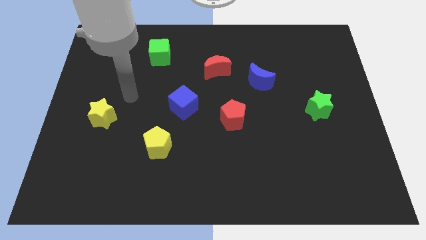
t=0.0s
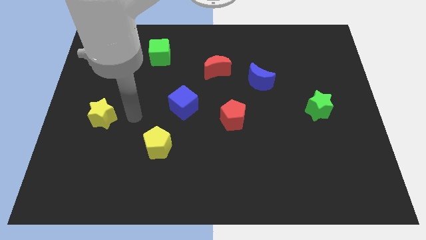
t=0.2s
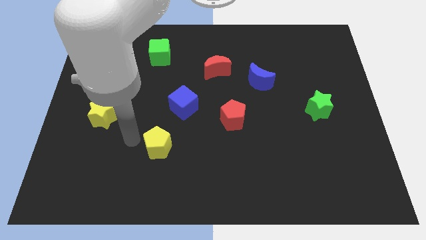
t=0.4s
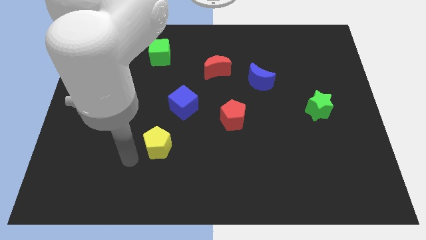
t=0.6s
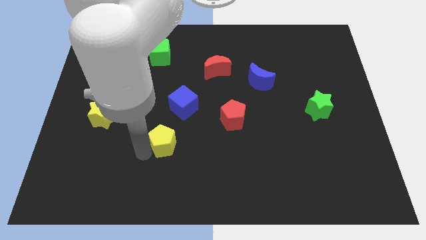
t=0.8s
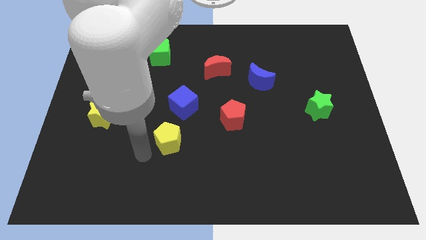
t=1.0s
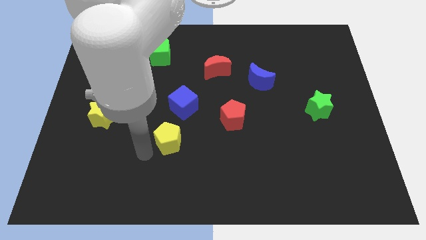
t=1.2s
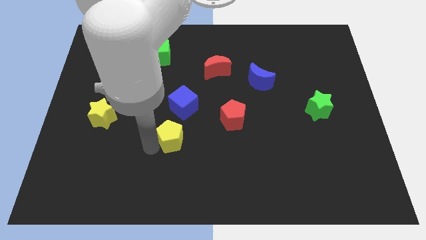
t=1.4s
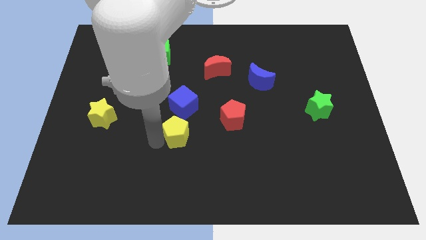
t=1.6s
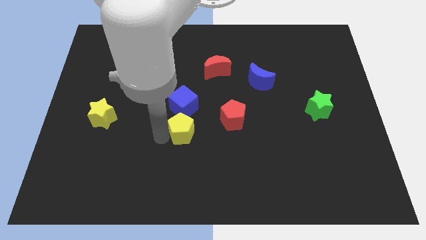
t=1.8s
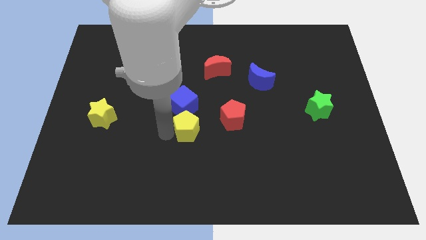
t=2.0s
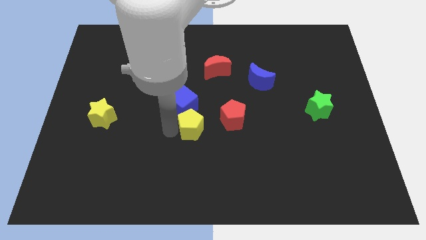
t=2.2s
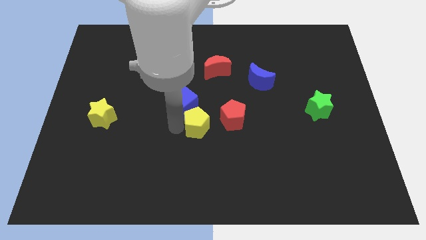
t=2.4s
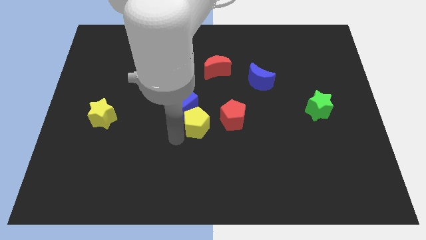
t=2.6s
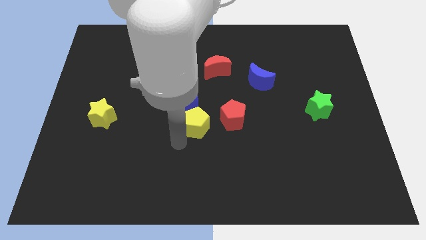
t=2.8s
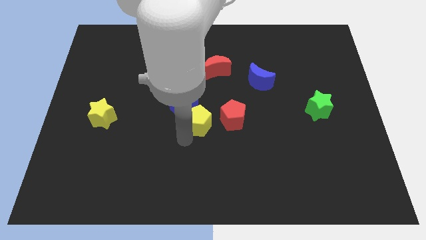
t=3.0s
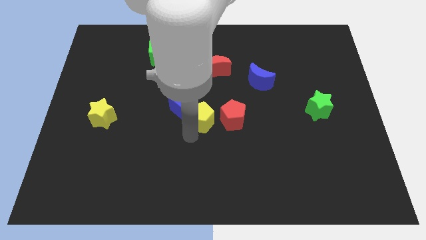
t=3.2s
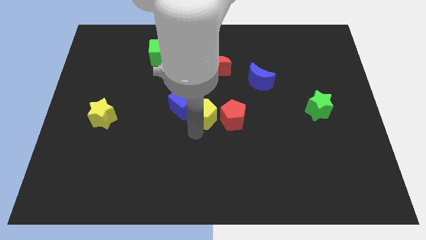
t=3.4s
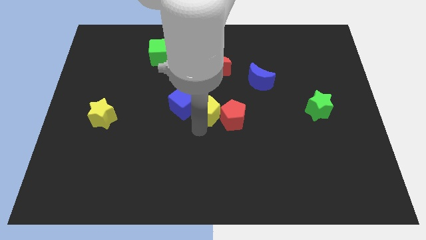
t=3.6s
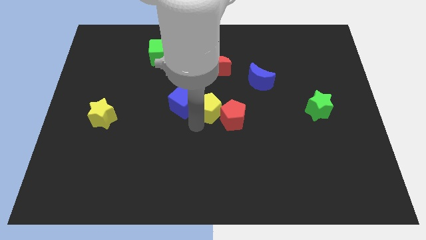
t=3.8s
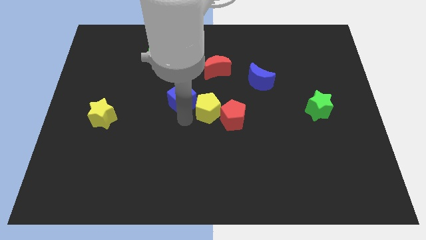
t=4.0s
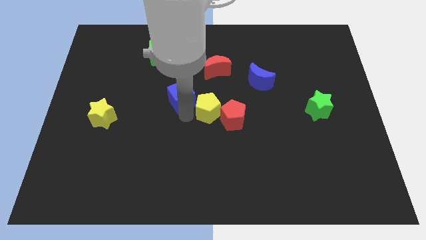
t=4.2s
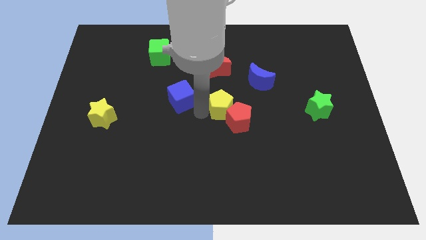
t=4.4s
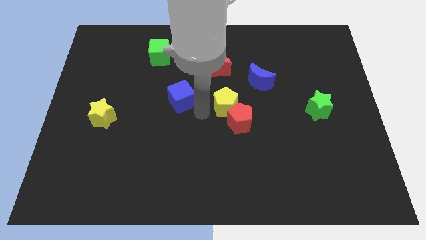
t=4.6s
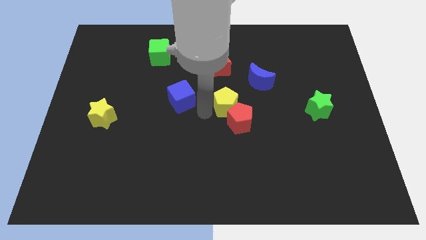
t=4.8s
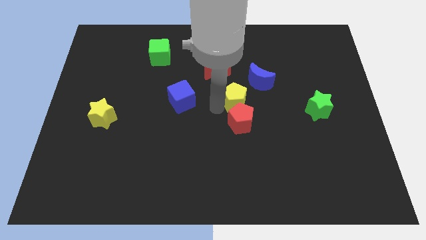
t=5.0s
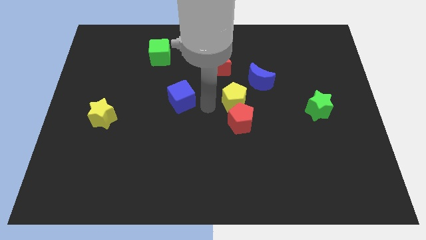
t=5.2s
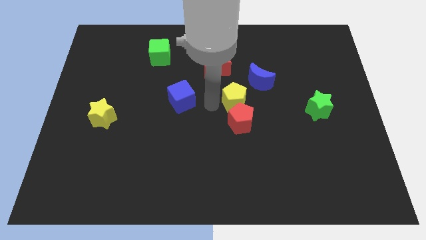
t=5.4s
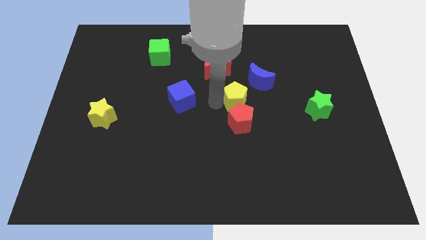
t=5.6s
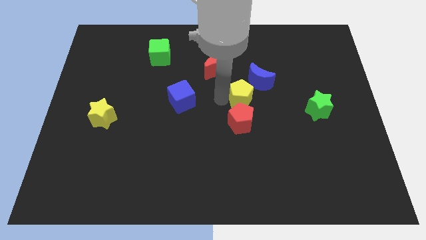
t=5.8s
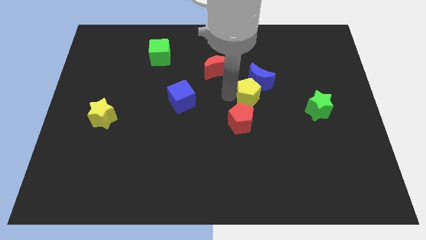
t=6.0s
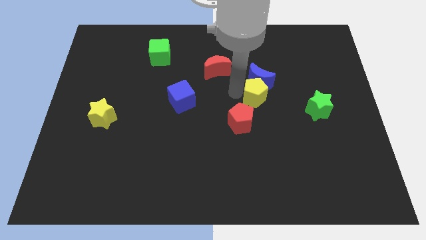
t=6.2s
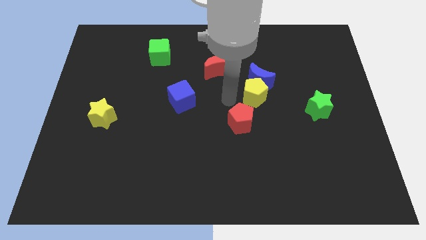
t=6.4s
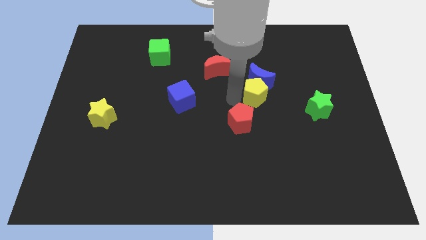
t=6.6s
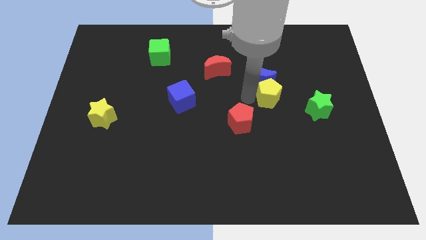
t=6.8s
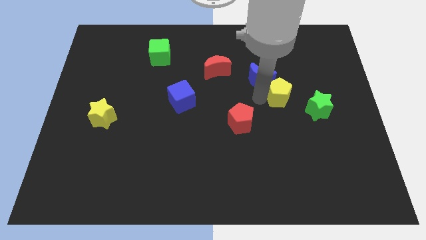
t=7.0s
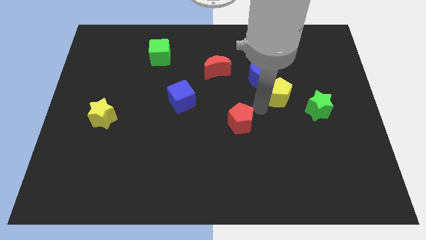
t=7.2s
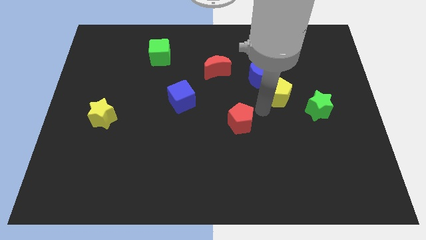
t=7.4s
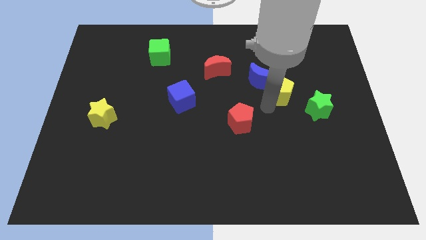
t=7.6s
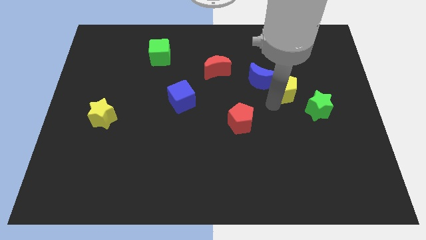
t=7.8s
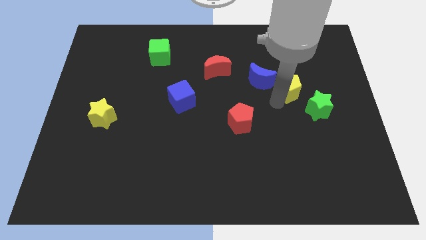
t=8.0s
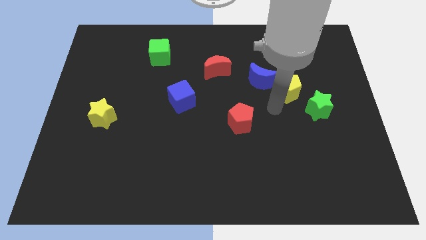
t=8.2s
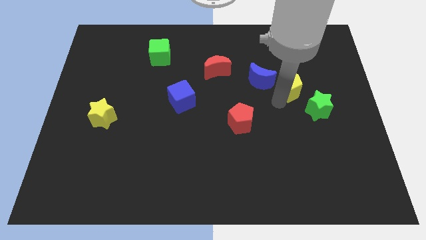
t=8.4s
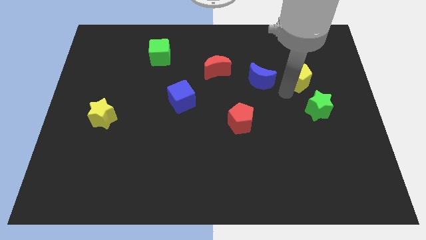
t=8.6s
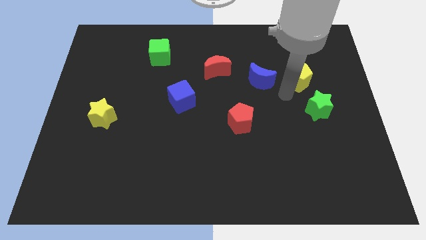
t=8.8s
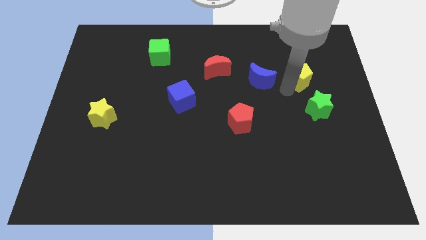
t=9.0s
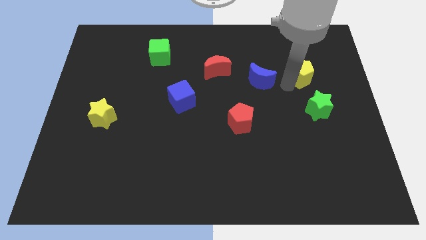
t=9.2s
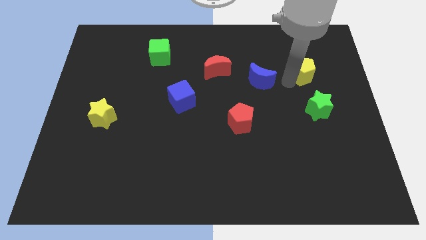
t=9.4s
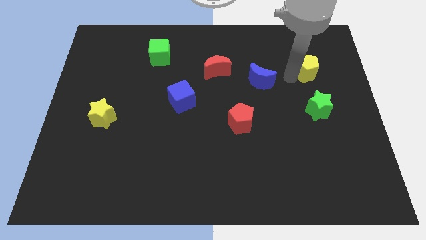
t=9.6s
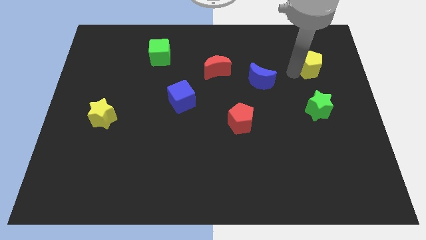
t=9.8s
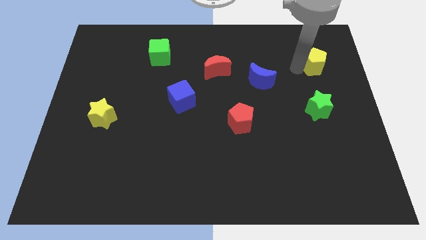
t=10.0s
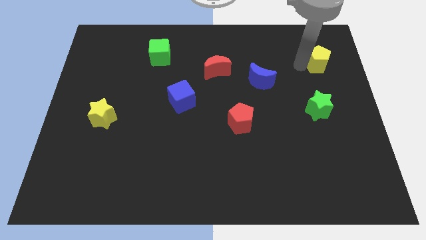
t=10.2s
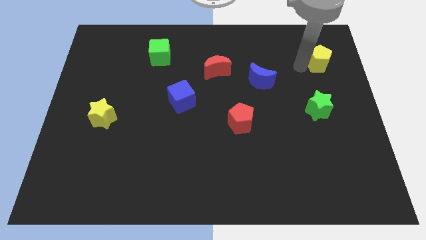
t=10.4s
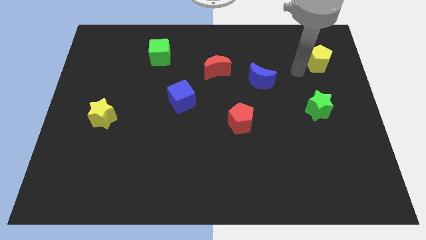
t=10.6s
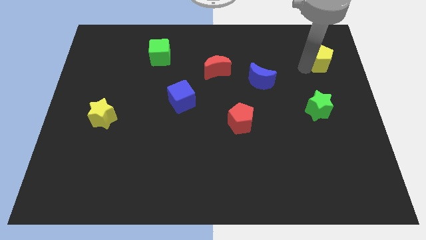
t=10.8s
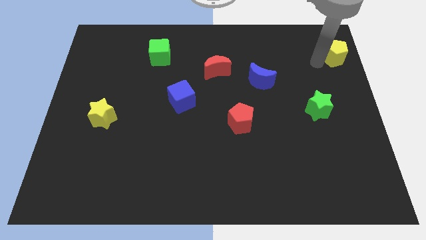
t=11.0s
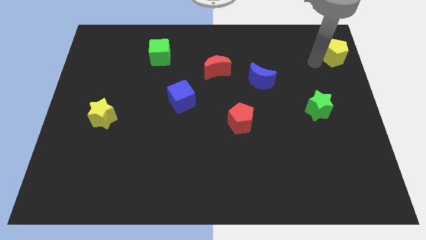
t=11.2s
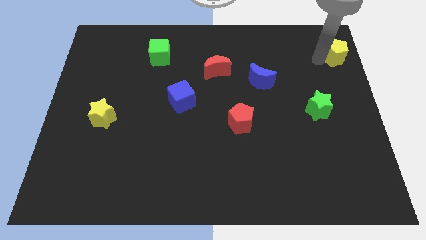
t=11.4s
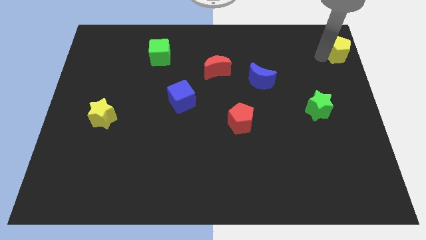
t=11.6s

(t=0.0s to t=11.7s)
move the yellow pentagon to the top right

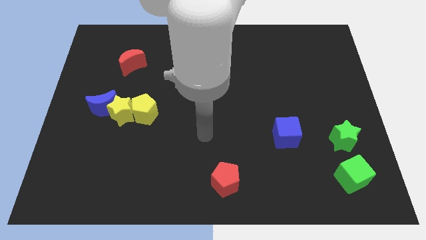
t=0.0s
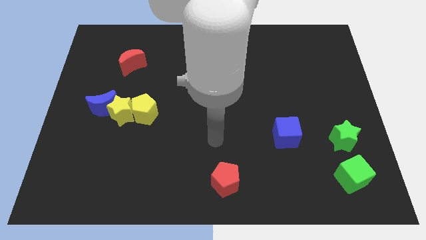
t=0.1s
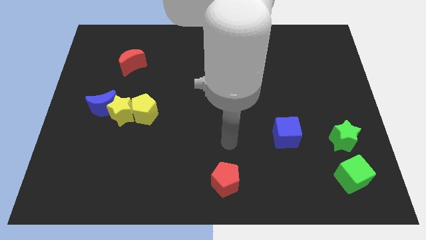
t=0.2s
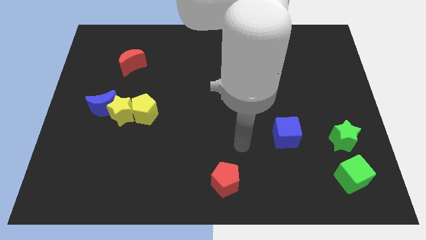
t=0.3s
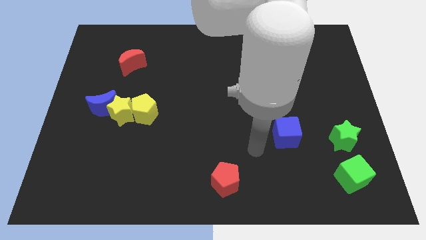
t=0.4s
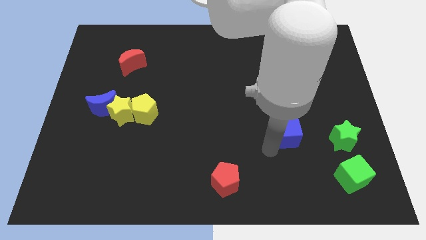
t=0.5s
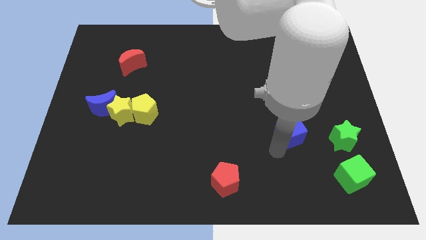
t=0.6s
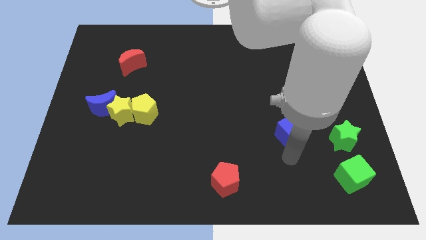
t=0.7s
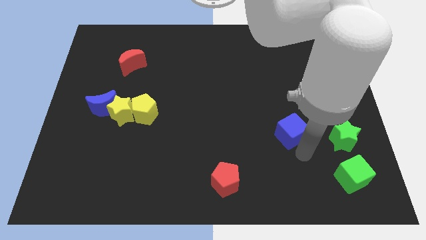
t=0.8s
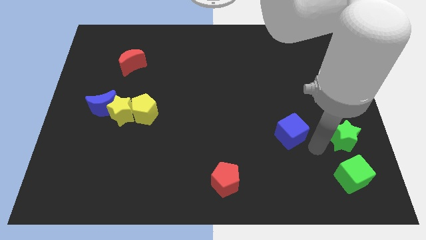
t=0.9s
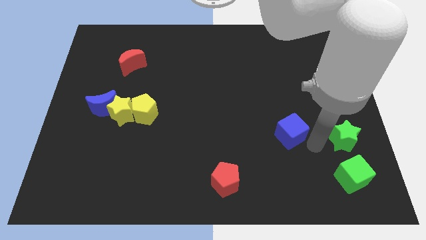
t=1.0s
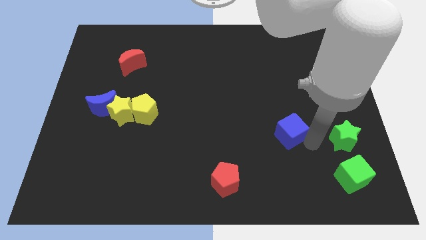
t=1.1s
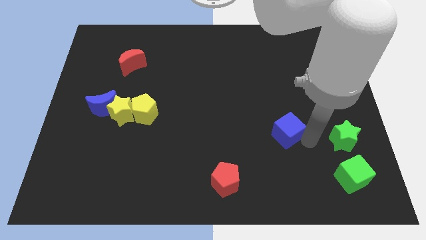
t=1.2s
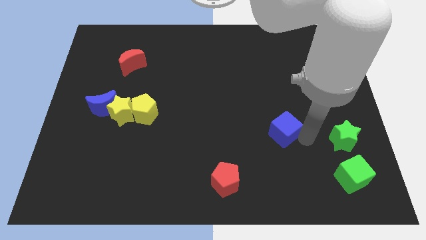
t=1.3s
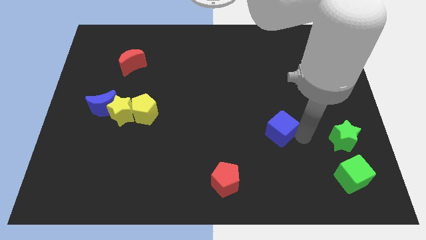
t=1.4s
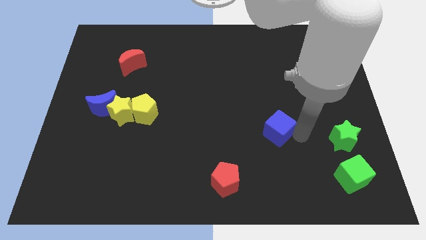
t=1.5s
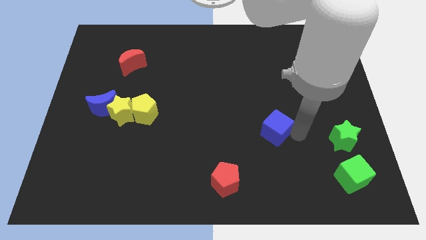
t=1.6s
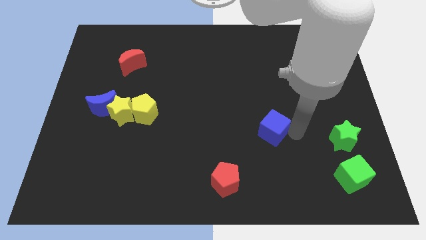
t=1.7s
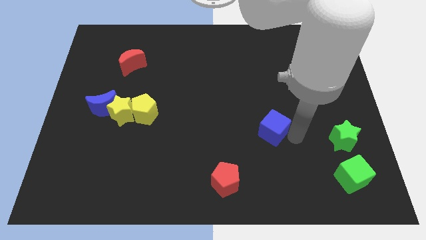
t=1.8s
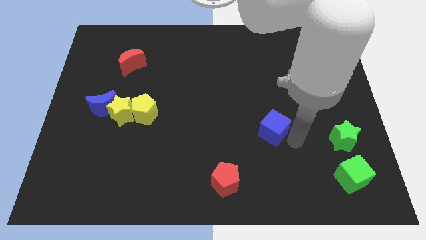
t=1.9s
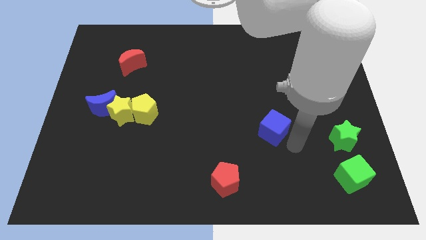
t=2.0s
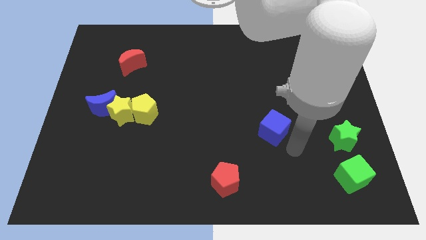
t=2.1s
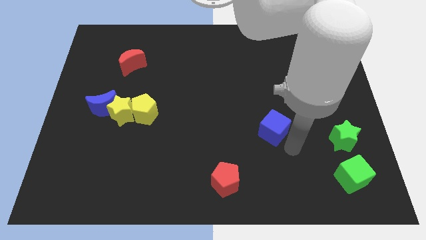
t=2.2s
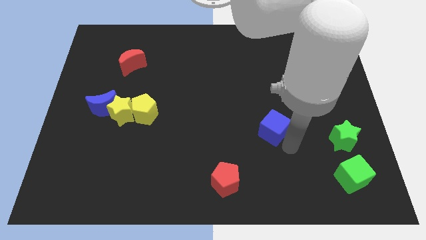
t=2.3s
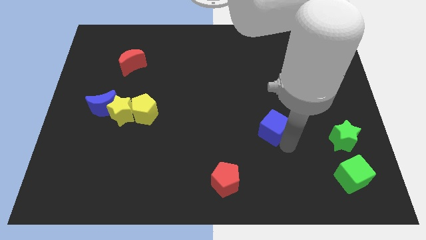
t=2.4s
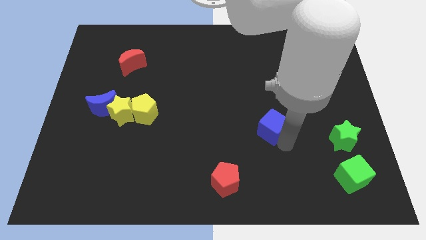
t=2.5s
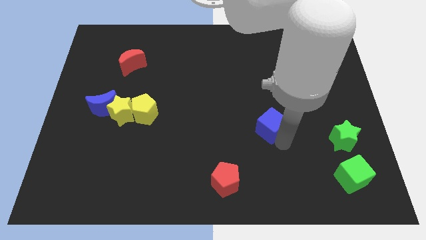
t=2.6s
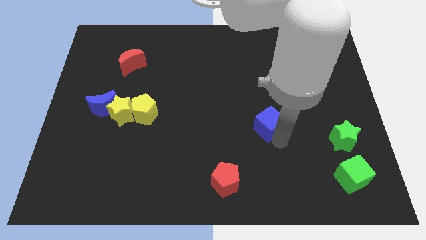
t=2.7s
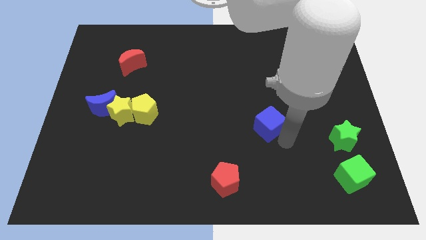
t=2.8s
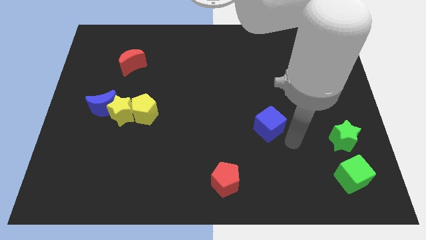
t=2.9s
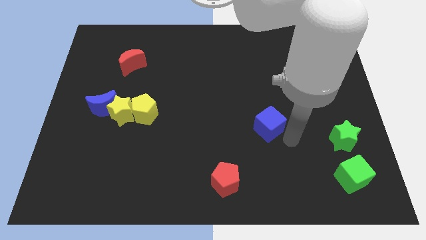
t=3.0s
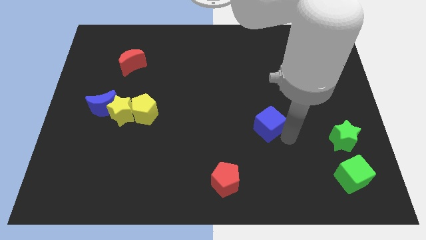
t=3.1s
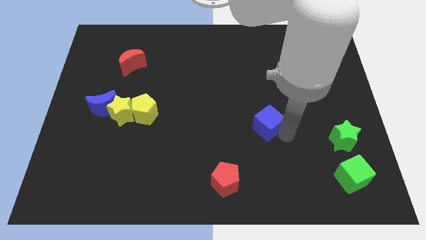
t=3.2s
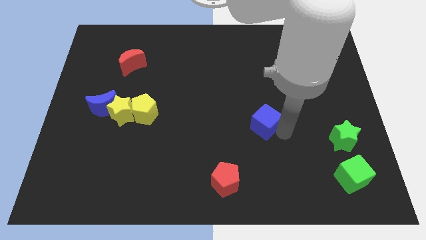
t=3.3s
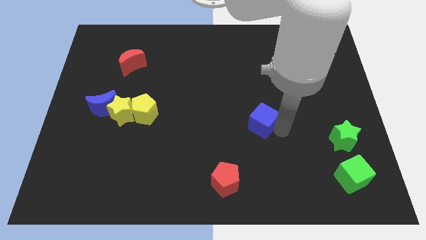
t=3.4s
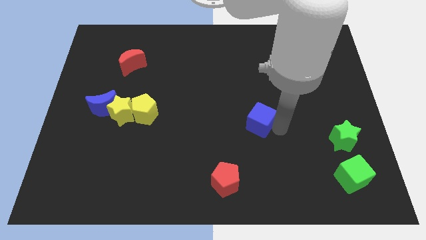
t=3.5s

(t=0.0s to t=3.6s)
put the blue cube to the middle of the board
